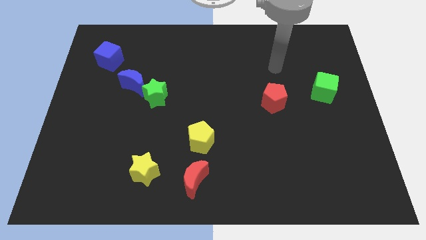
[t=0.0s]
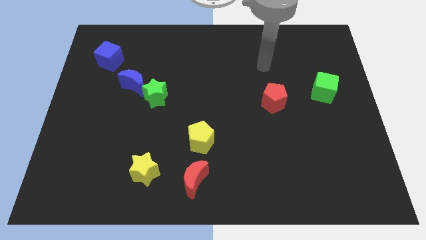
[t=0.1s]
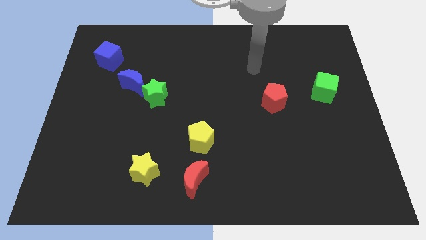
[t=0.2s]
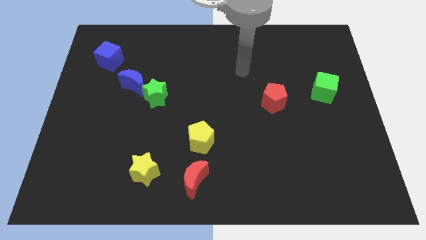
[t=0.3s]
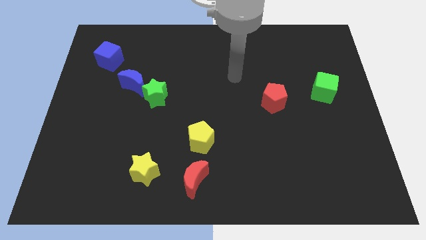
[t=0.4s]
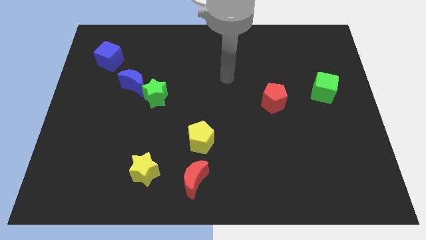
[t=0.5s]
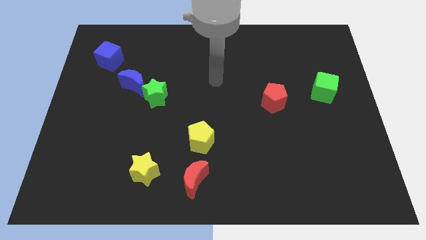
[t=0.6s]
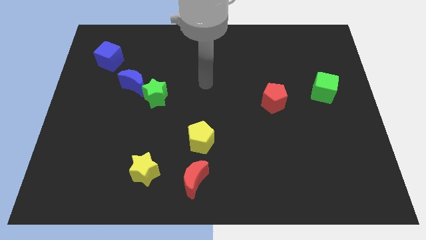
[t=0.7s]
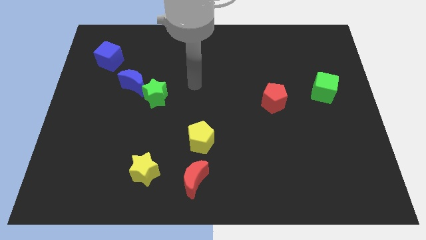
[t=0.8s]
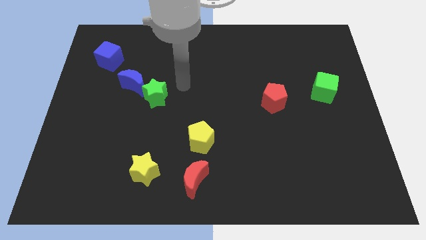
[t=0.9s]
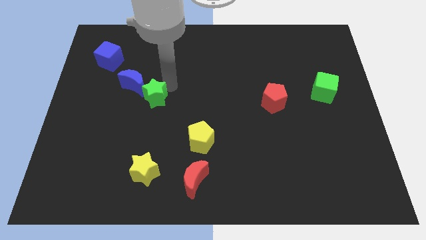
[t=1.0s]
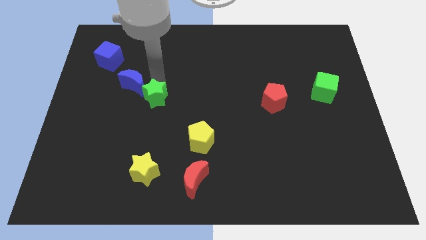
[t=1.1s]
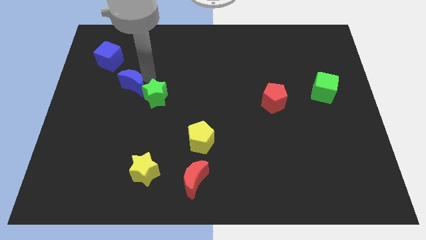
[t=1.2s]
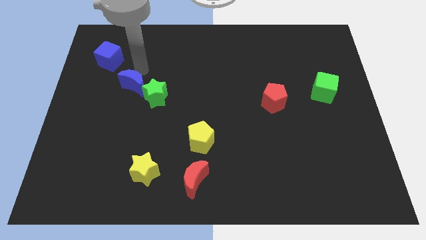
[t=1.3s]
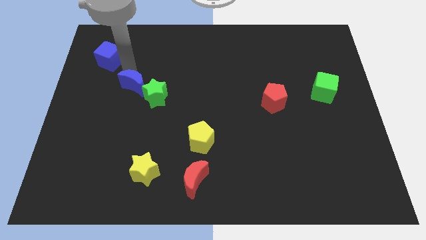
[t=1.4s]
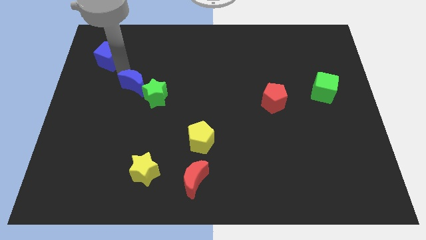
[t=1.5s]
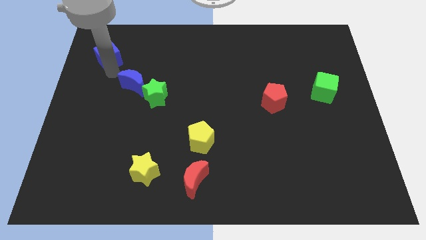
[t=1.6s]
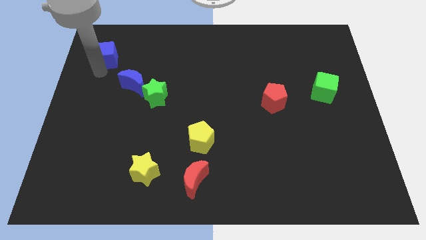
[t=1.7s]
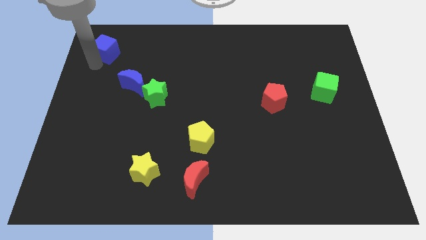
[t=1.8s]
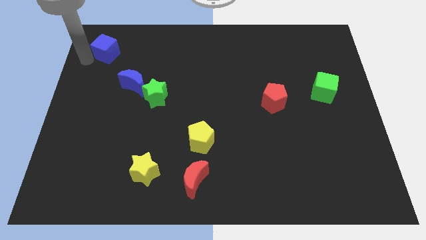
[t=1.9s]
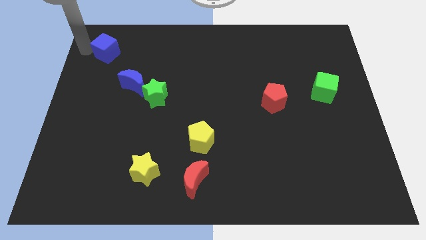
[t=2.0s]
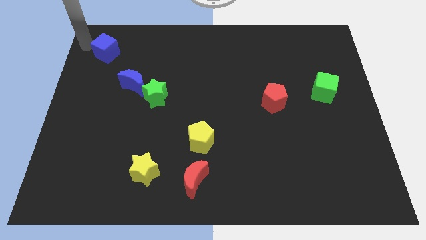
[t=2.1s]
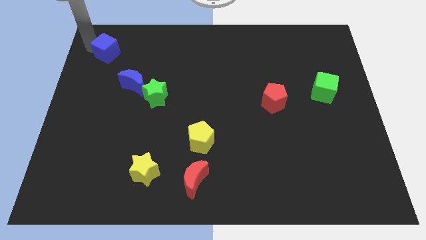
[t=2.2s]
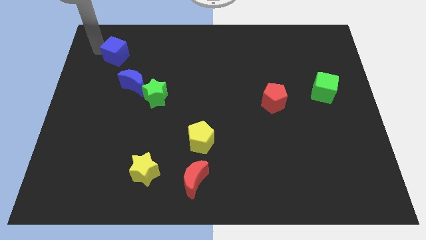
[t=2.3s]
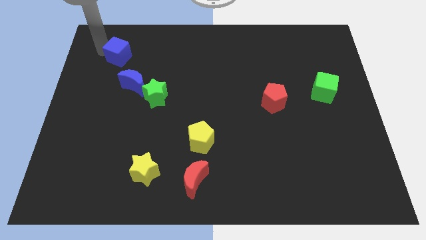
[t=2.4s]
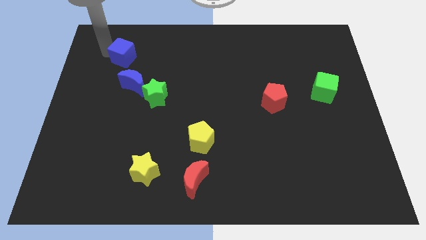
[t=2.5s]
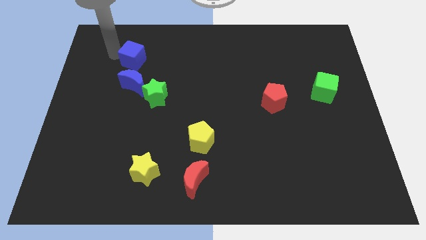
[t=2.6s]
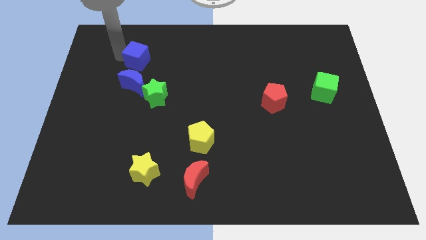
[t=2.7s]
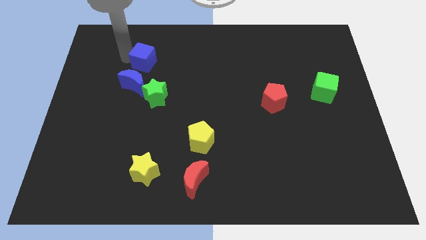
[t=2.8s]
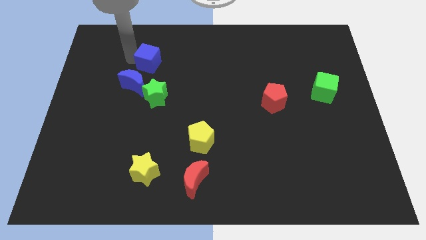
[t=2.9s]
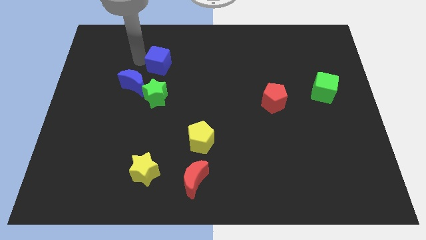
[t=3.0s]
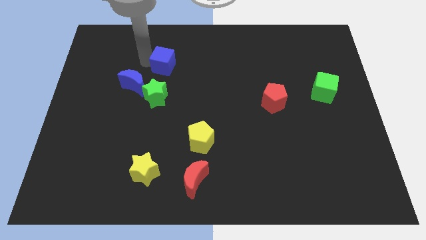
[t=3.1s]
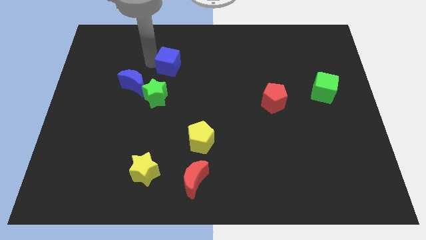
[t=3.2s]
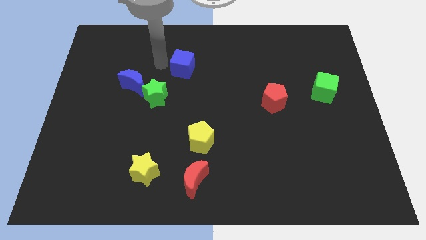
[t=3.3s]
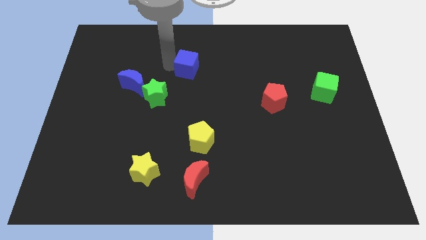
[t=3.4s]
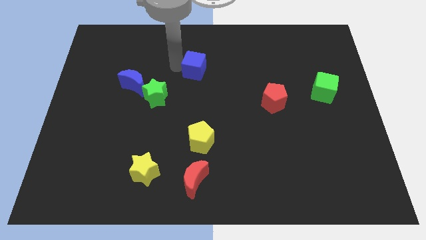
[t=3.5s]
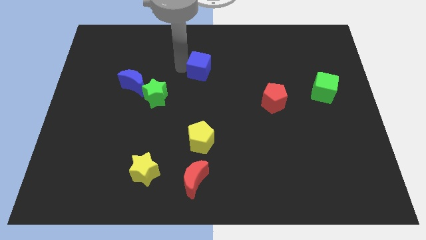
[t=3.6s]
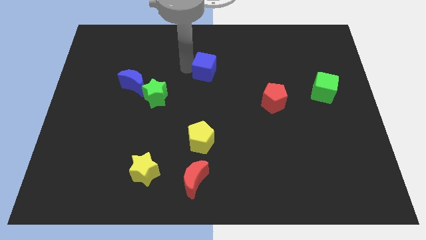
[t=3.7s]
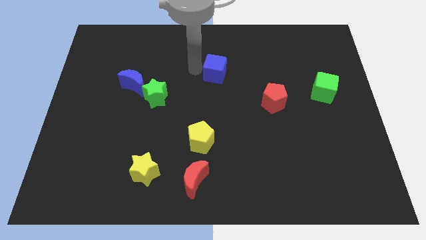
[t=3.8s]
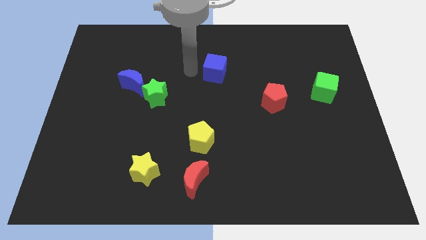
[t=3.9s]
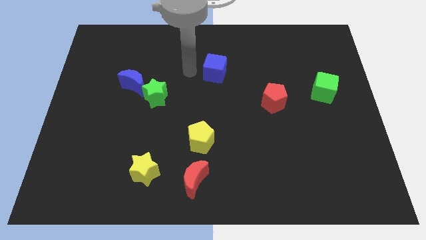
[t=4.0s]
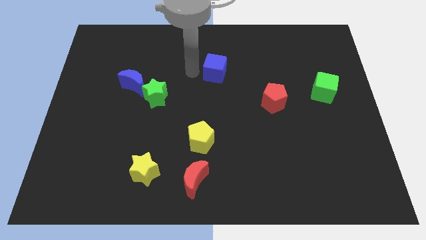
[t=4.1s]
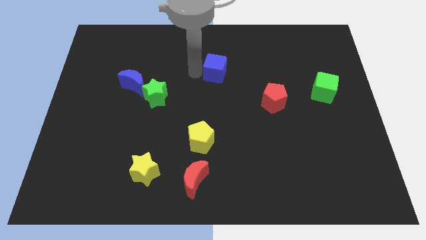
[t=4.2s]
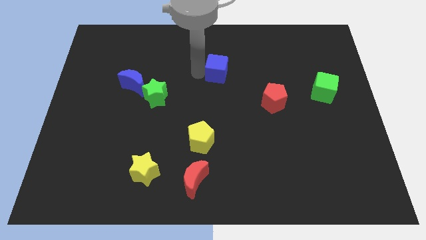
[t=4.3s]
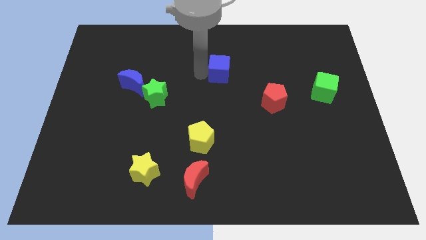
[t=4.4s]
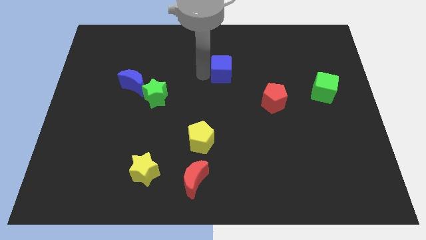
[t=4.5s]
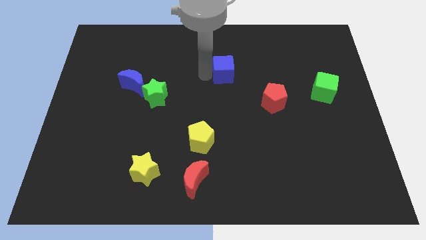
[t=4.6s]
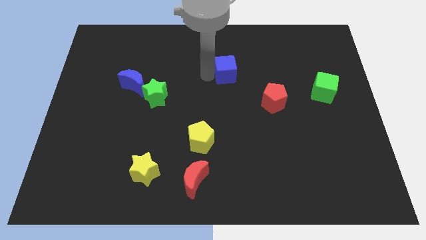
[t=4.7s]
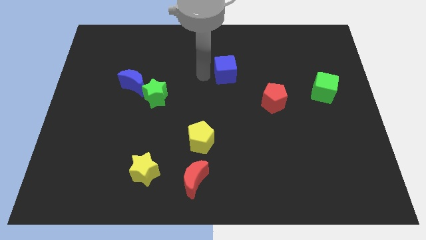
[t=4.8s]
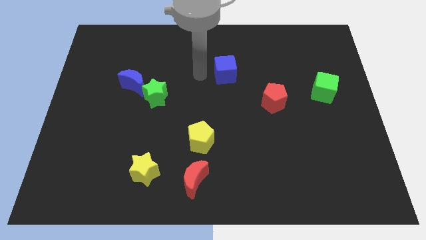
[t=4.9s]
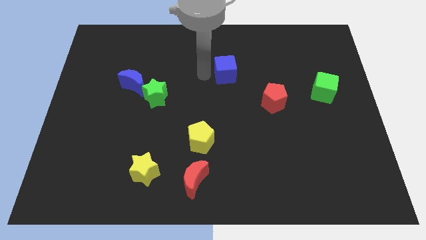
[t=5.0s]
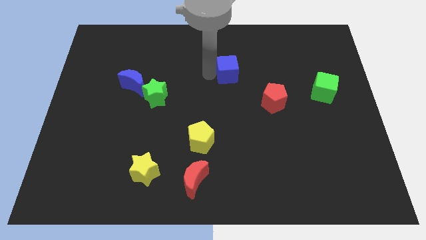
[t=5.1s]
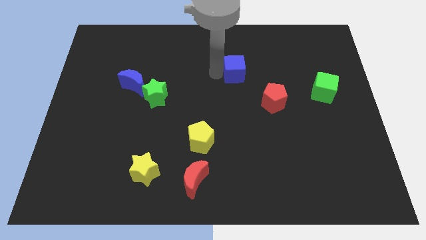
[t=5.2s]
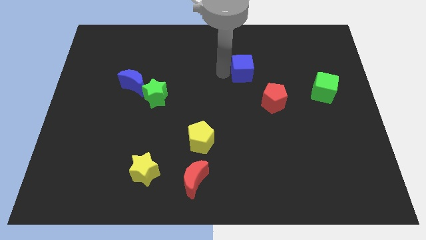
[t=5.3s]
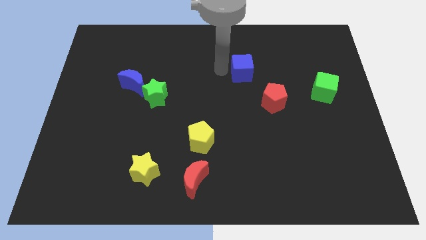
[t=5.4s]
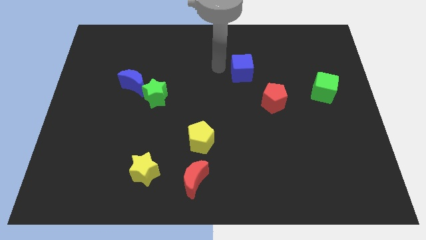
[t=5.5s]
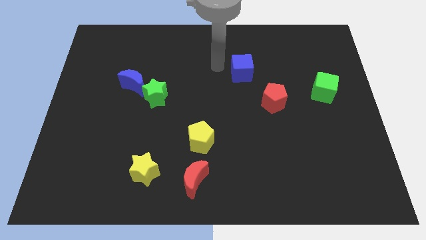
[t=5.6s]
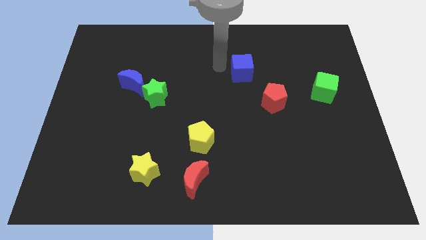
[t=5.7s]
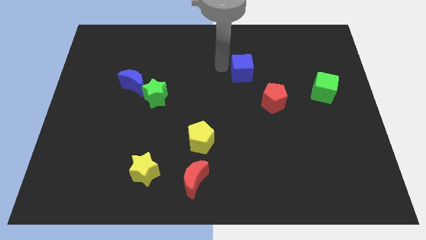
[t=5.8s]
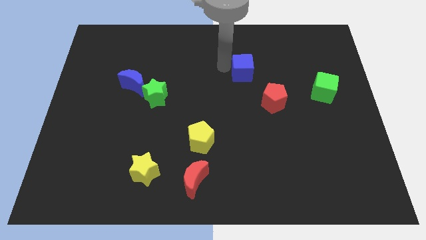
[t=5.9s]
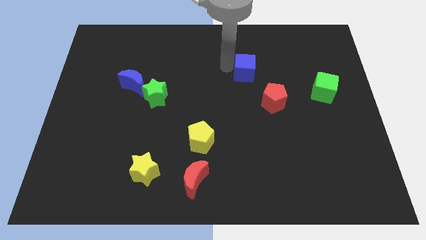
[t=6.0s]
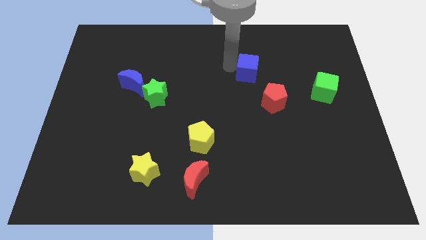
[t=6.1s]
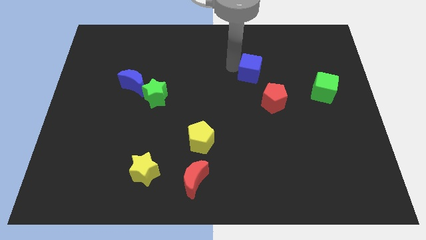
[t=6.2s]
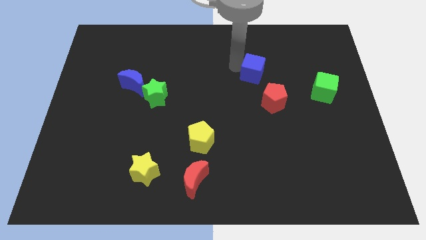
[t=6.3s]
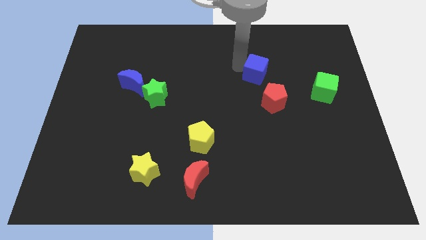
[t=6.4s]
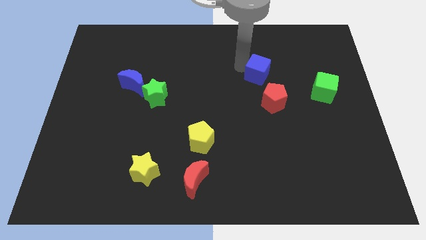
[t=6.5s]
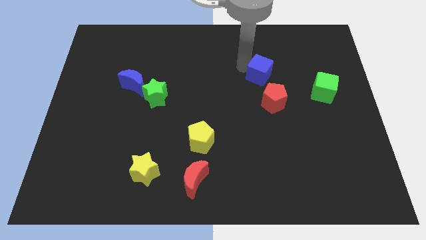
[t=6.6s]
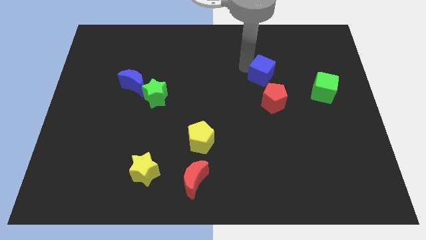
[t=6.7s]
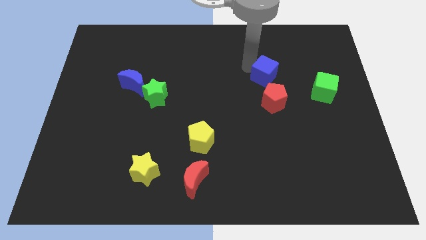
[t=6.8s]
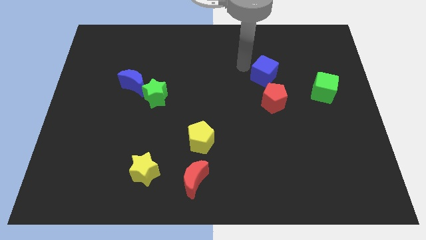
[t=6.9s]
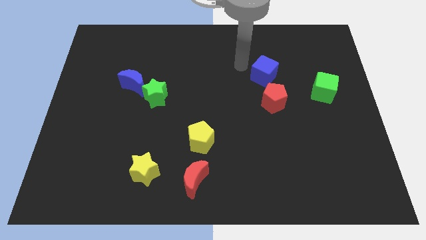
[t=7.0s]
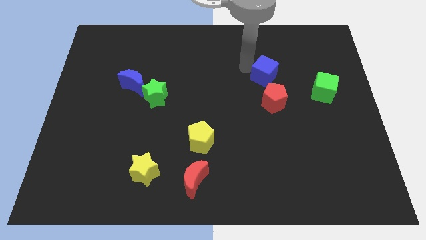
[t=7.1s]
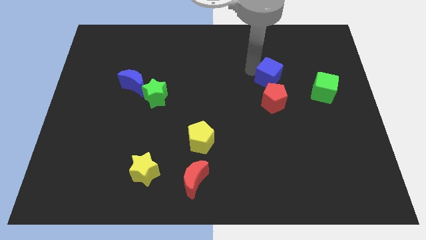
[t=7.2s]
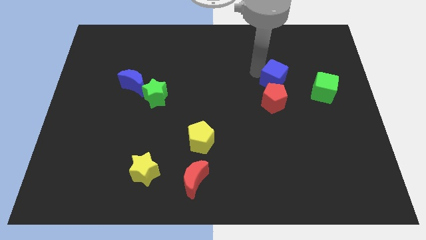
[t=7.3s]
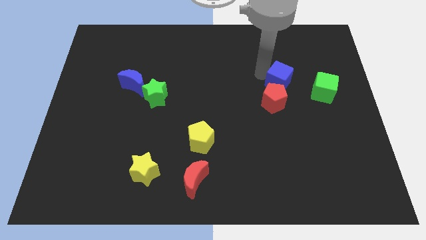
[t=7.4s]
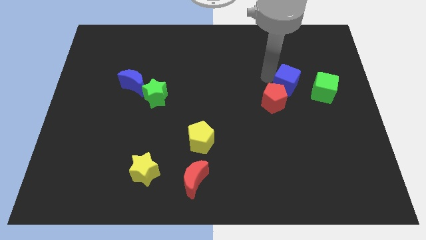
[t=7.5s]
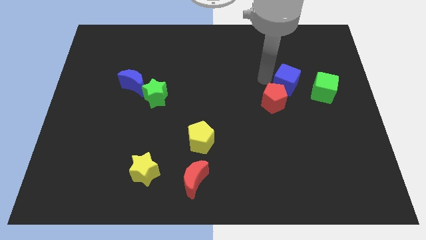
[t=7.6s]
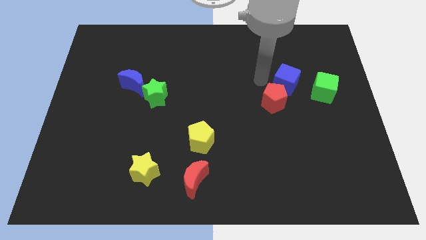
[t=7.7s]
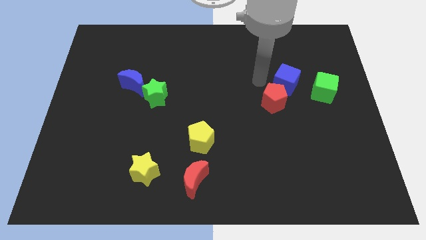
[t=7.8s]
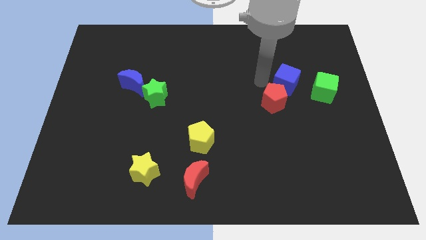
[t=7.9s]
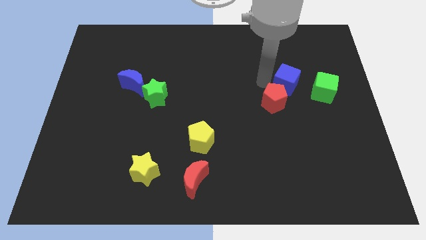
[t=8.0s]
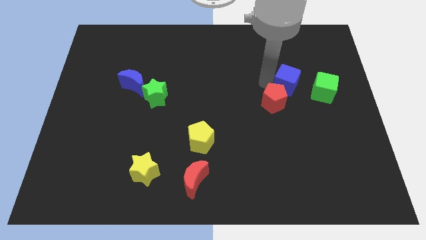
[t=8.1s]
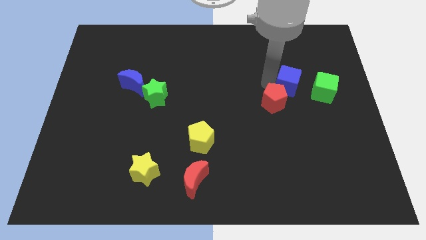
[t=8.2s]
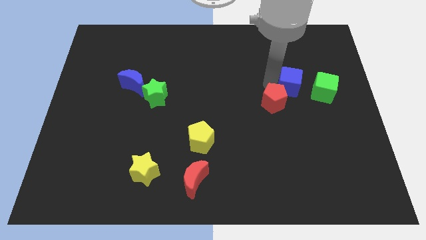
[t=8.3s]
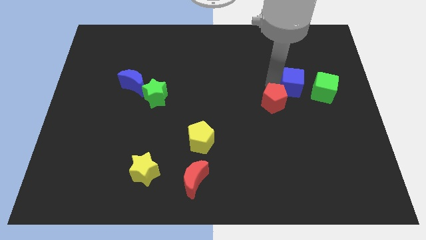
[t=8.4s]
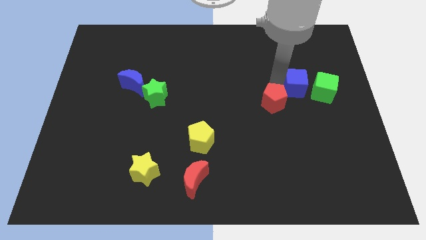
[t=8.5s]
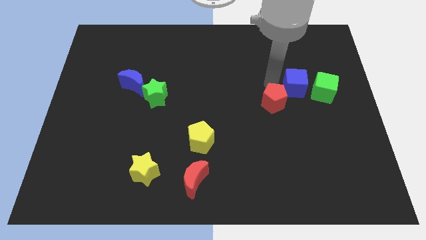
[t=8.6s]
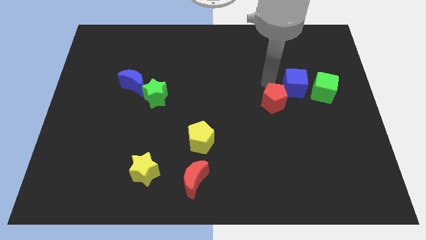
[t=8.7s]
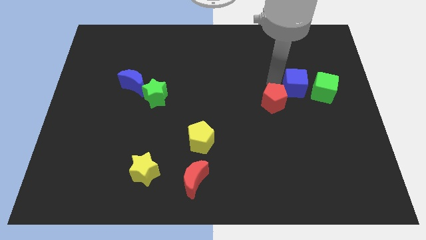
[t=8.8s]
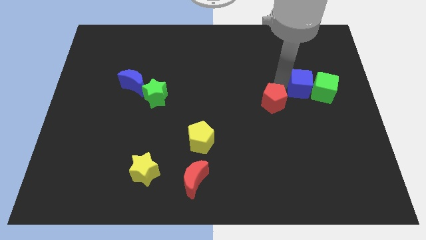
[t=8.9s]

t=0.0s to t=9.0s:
move the blue cube next to the green cube
